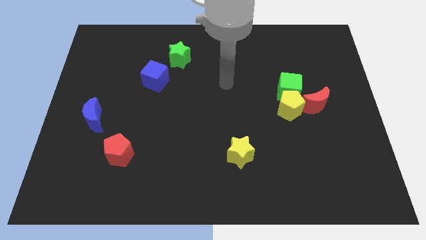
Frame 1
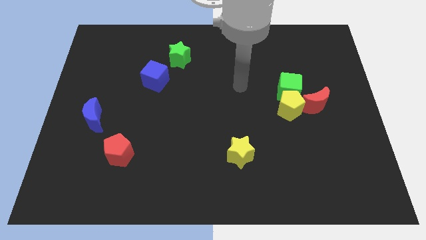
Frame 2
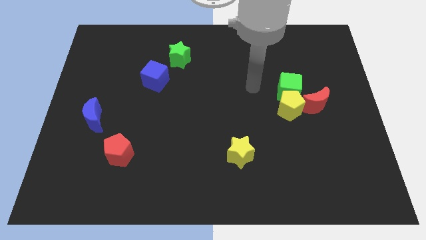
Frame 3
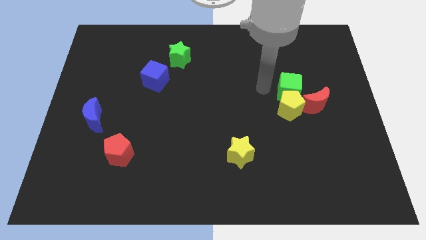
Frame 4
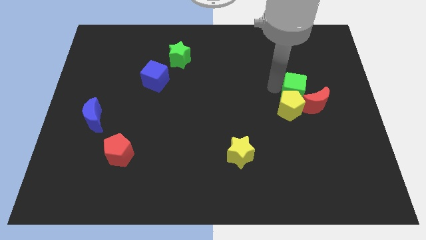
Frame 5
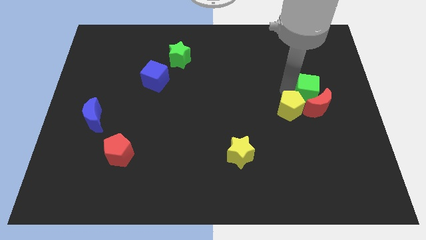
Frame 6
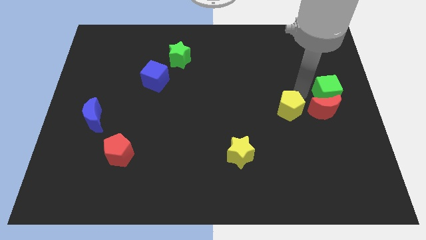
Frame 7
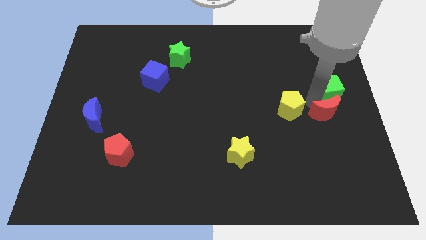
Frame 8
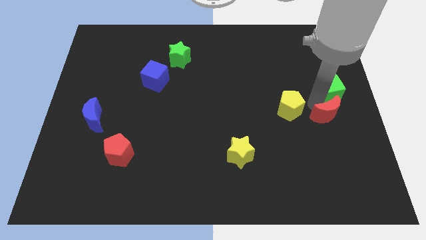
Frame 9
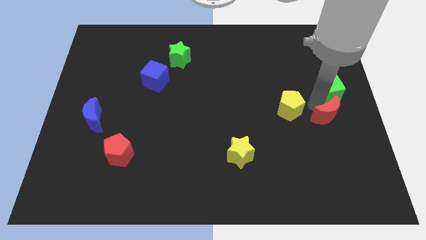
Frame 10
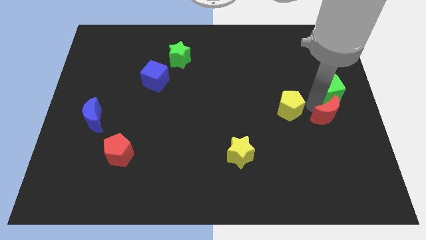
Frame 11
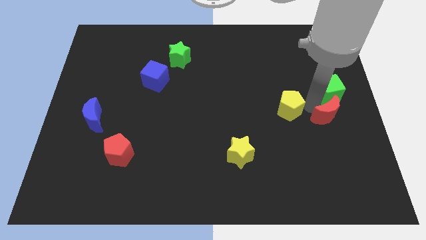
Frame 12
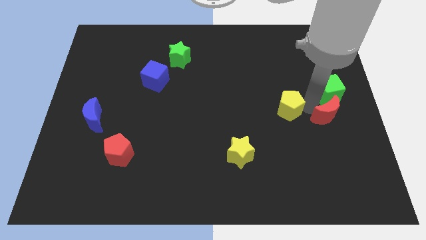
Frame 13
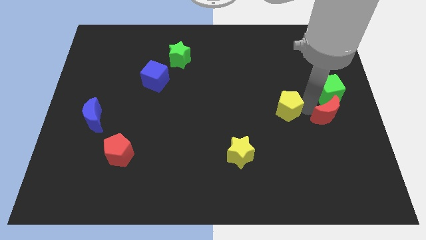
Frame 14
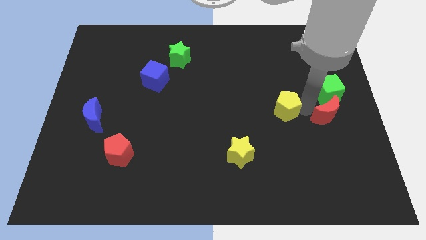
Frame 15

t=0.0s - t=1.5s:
pull the yellow pentagon apart from the green cube and red moon

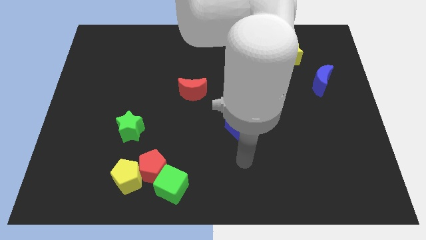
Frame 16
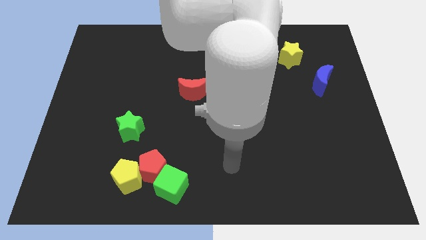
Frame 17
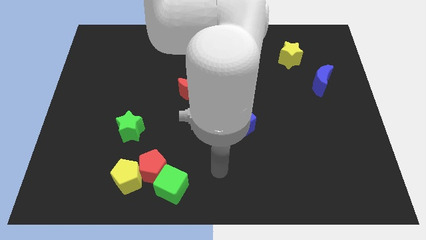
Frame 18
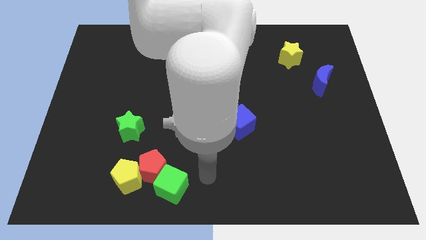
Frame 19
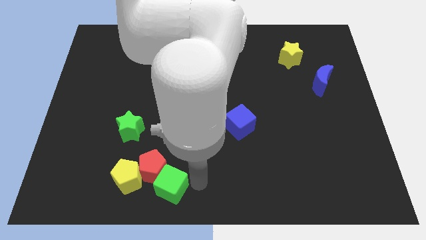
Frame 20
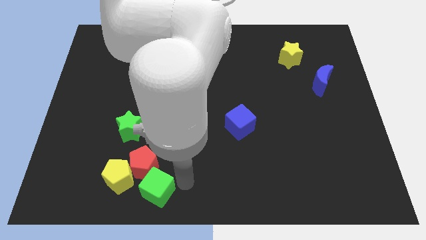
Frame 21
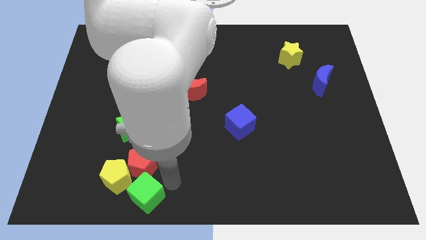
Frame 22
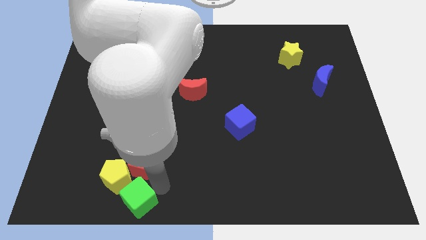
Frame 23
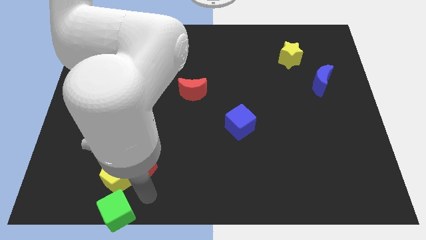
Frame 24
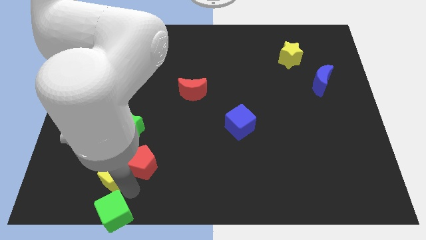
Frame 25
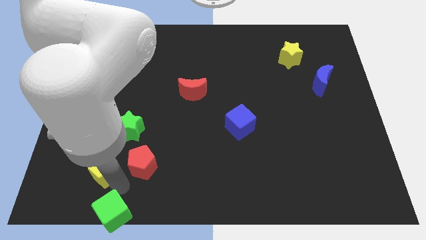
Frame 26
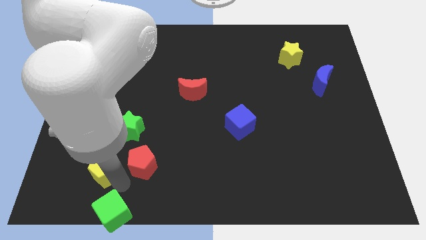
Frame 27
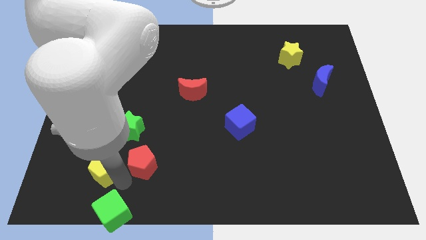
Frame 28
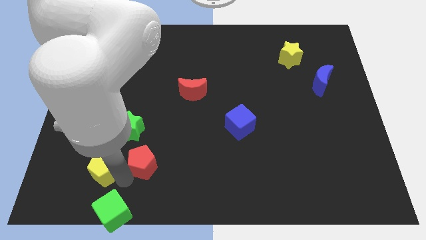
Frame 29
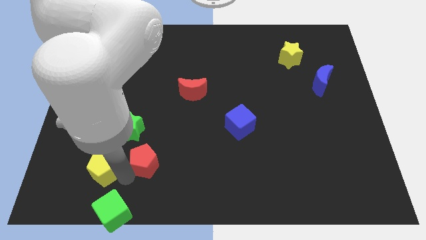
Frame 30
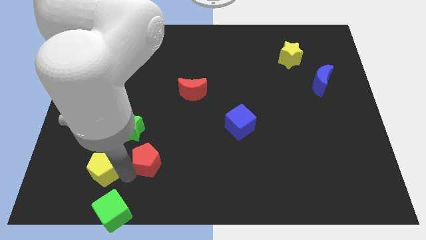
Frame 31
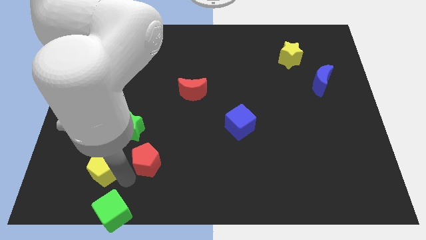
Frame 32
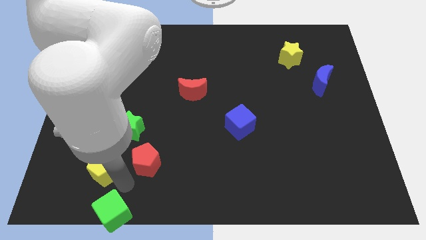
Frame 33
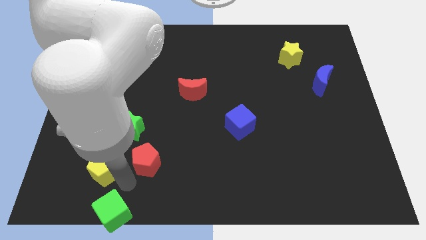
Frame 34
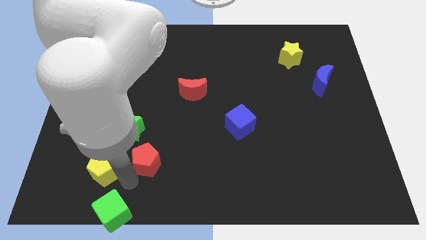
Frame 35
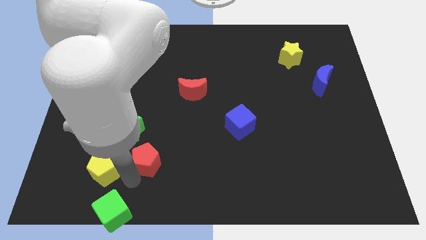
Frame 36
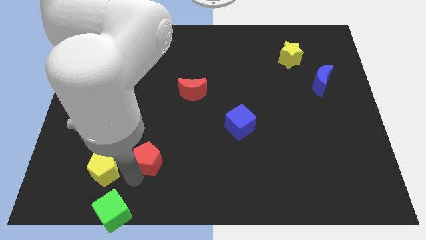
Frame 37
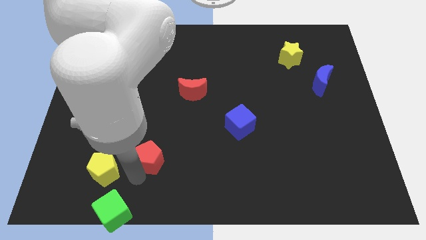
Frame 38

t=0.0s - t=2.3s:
move the red pentagon away from the yellow pentagon and green cube

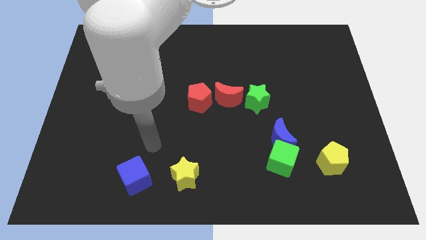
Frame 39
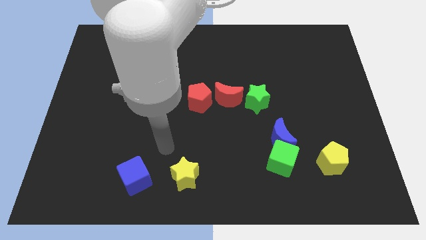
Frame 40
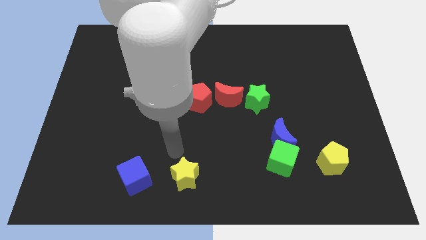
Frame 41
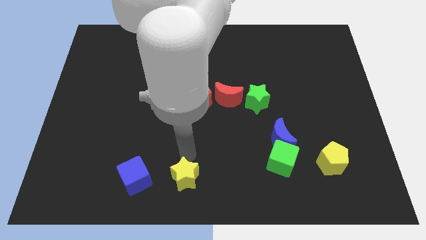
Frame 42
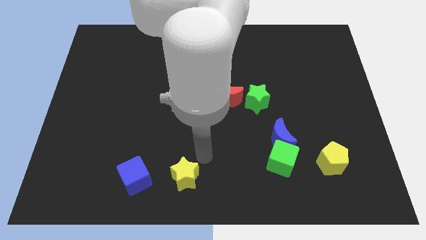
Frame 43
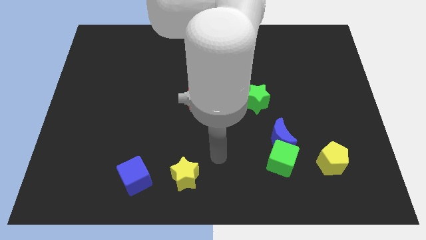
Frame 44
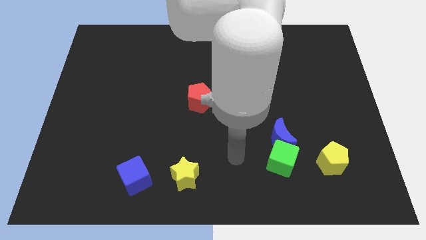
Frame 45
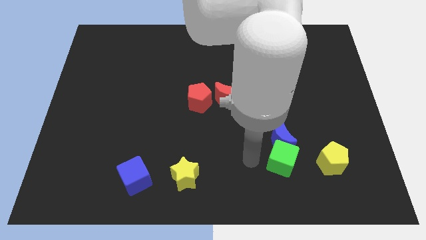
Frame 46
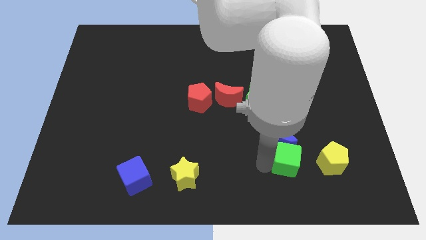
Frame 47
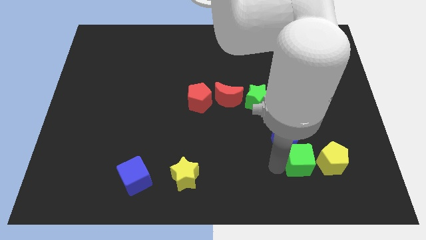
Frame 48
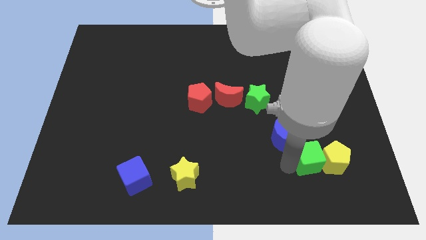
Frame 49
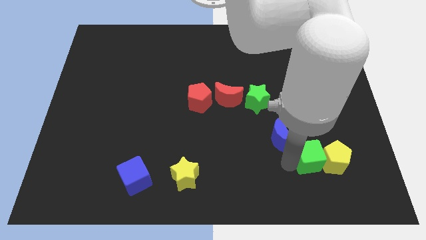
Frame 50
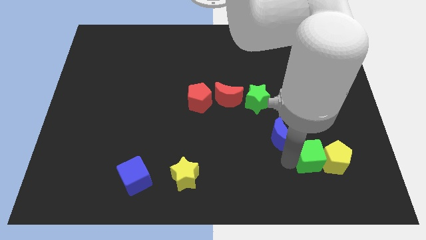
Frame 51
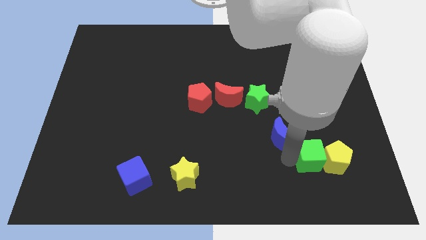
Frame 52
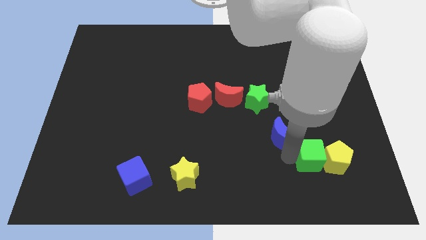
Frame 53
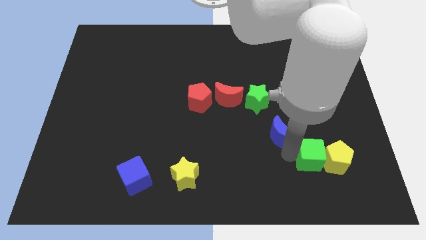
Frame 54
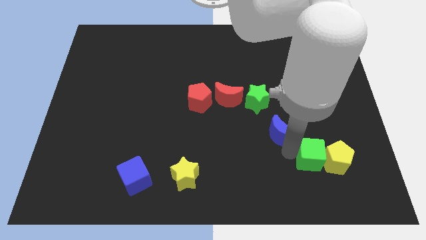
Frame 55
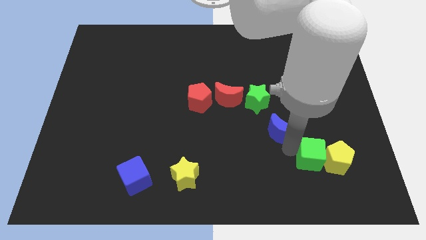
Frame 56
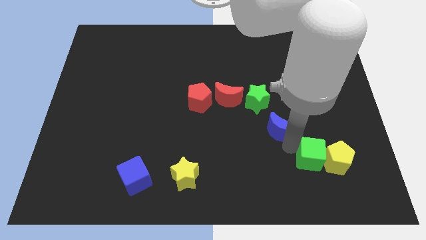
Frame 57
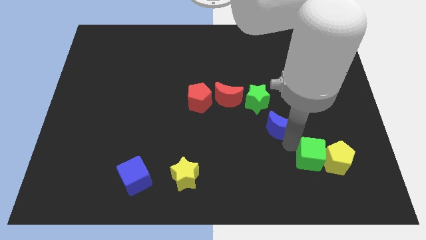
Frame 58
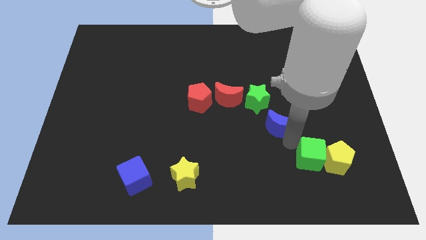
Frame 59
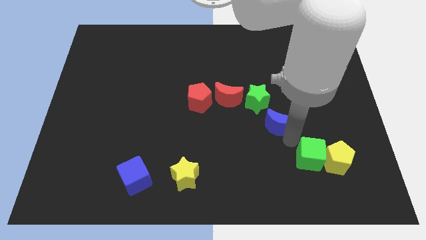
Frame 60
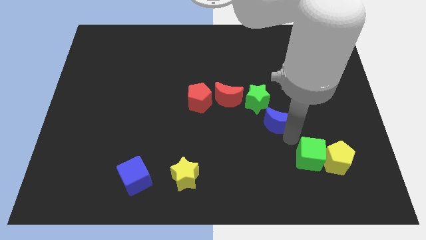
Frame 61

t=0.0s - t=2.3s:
pull the blue moon apart from the green cube

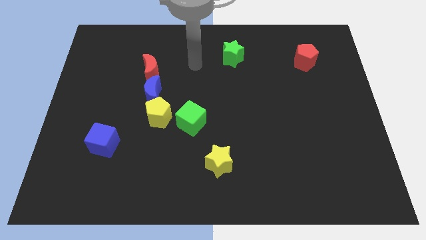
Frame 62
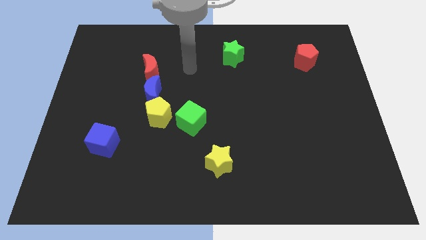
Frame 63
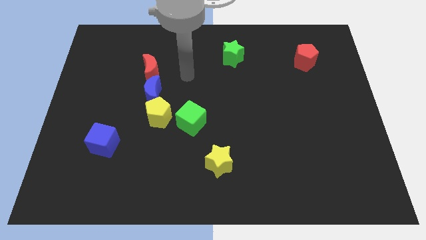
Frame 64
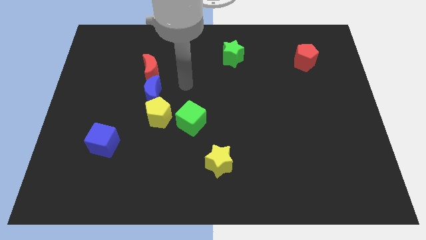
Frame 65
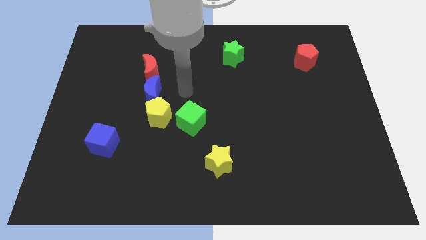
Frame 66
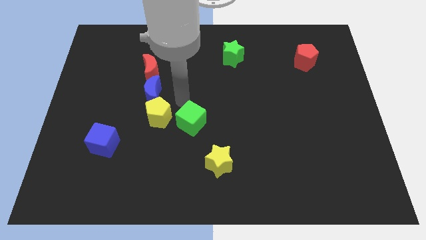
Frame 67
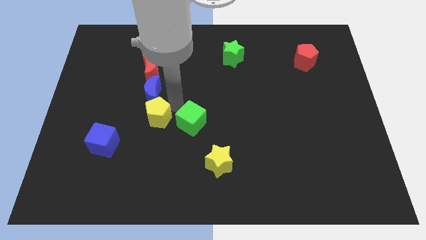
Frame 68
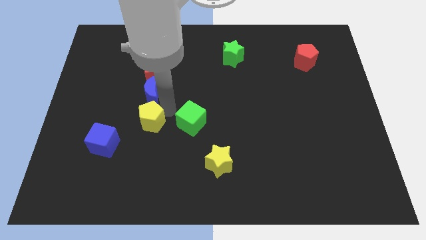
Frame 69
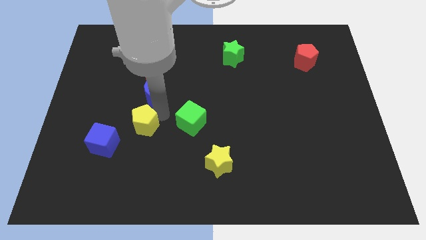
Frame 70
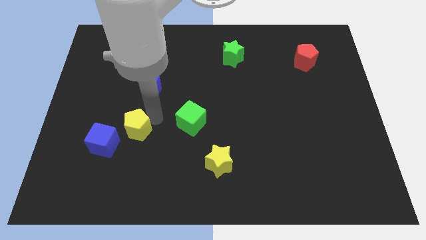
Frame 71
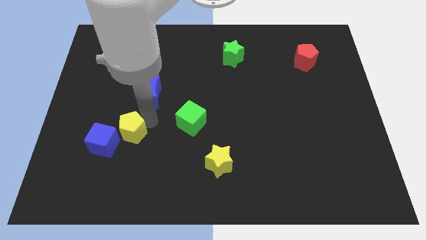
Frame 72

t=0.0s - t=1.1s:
separate the yellow pentagon from the blue moon and green cube

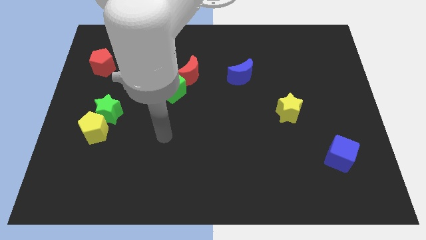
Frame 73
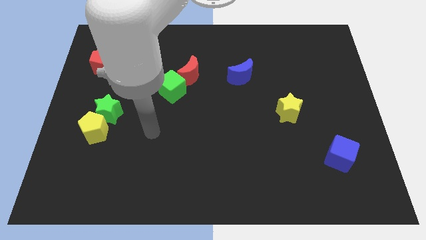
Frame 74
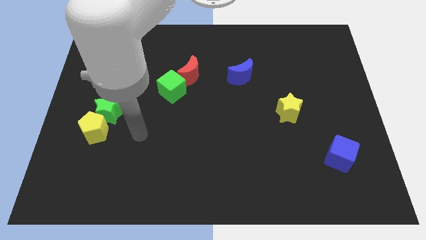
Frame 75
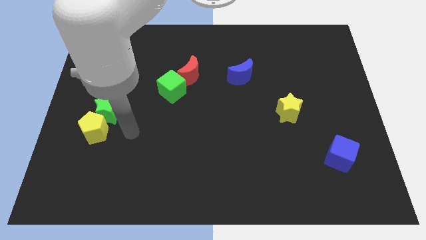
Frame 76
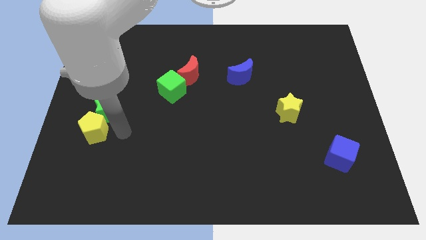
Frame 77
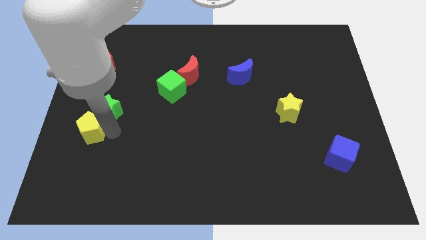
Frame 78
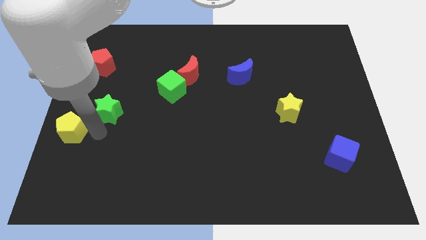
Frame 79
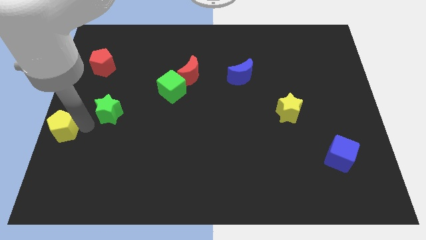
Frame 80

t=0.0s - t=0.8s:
separate the green star from the yellow pentagon

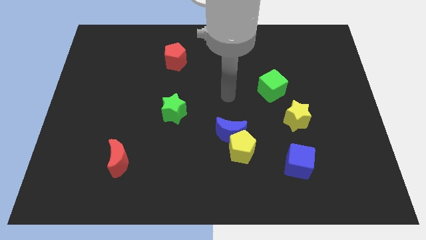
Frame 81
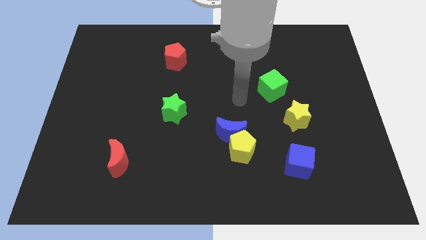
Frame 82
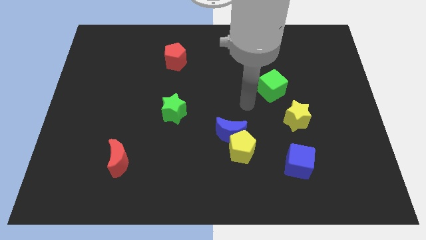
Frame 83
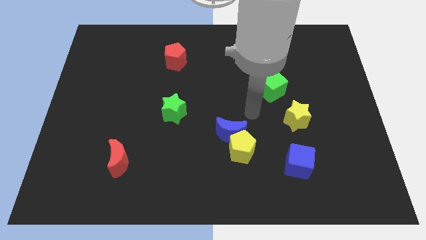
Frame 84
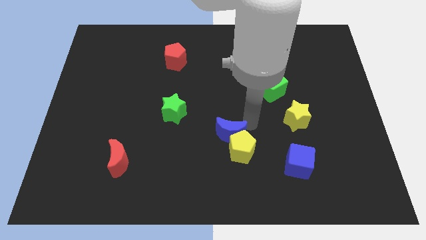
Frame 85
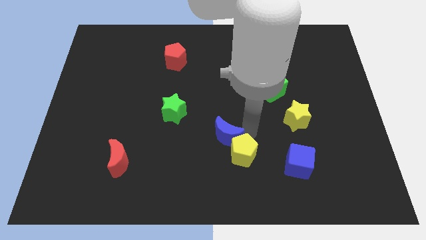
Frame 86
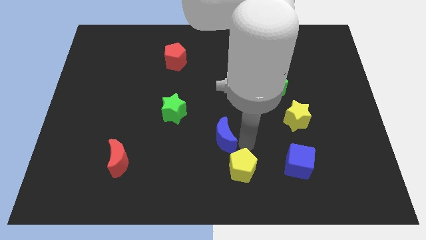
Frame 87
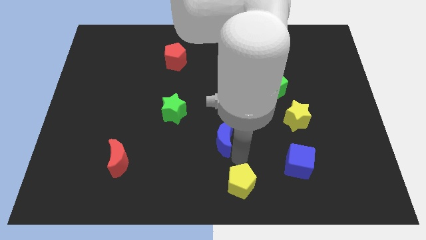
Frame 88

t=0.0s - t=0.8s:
separate the blue moon from the yellow pentagon

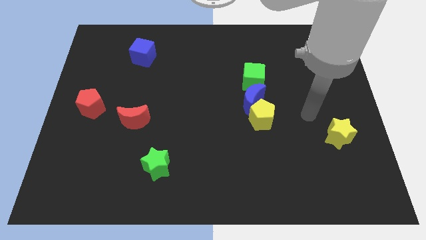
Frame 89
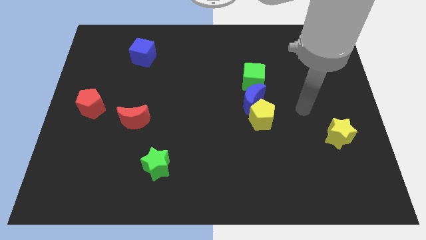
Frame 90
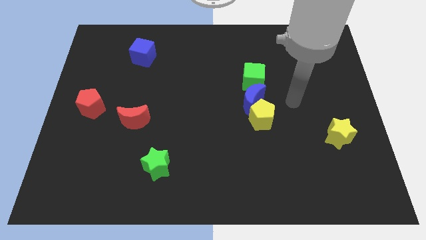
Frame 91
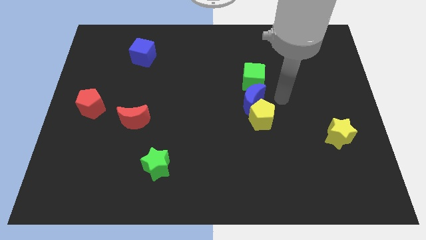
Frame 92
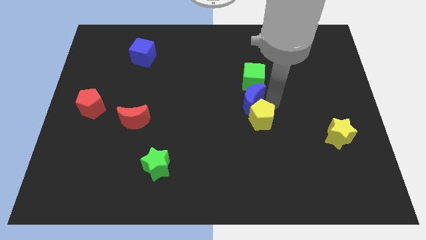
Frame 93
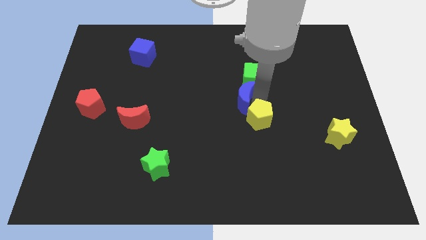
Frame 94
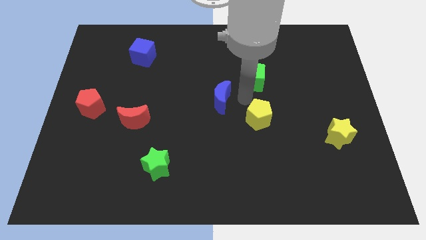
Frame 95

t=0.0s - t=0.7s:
move the yellow pentagon away from the blue moon

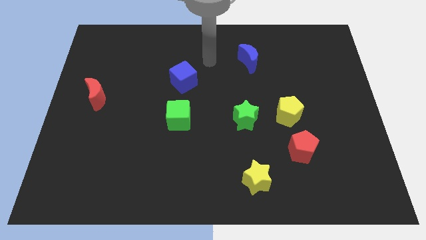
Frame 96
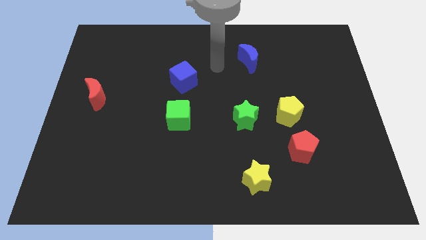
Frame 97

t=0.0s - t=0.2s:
separate the red pentagon from the yellow pentagon
